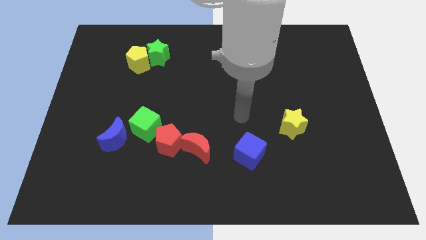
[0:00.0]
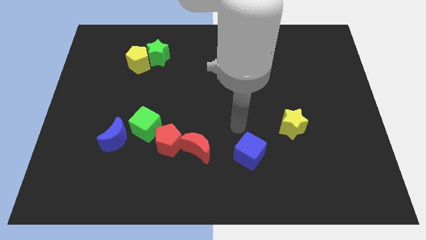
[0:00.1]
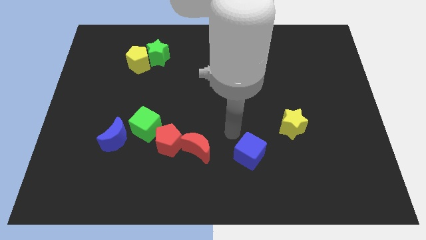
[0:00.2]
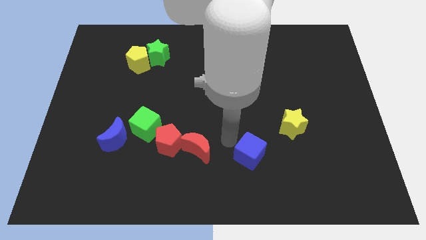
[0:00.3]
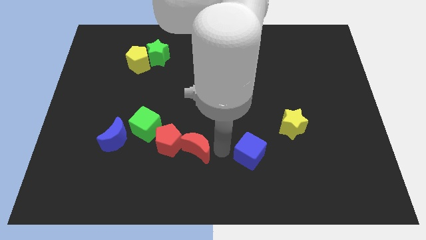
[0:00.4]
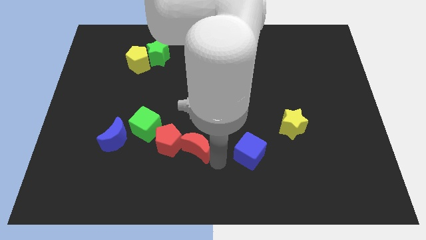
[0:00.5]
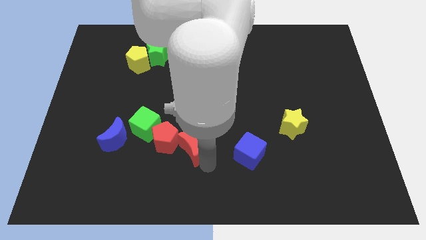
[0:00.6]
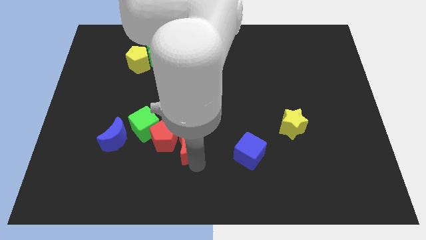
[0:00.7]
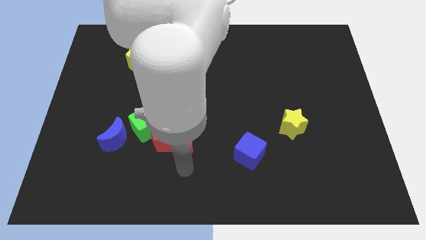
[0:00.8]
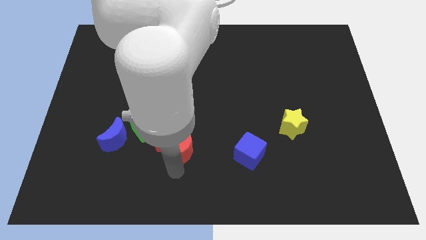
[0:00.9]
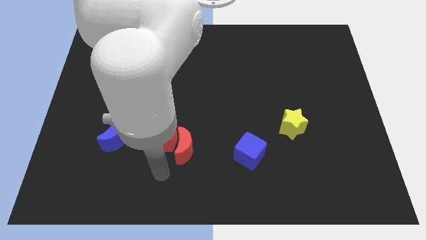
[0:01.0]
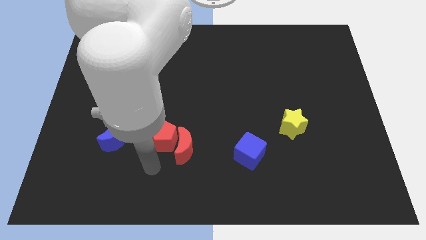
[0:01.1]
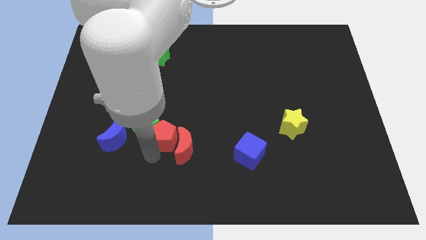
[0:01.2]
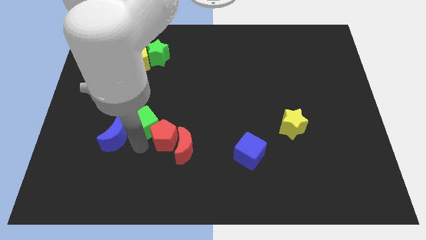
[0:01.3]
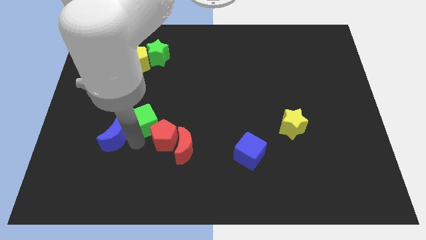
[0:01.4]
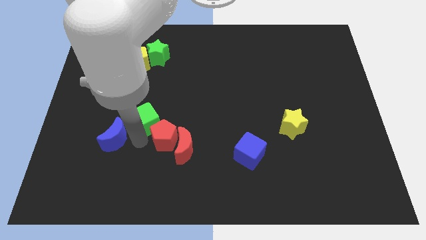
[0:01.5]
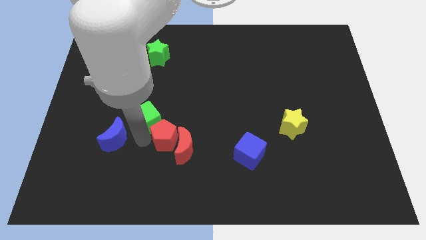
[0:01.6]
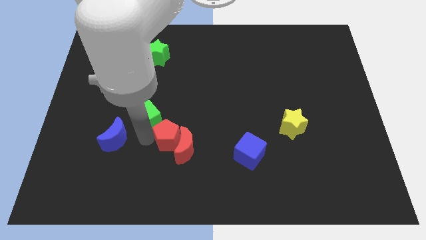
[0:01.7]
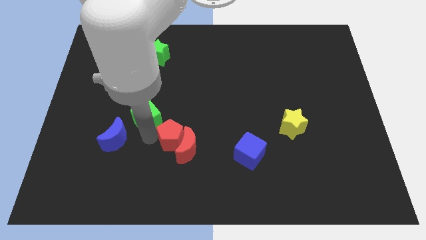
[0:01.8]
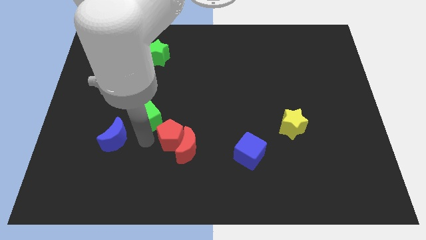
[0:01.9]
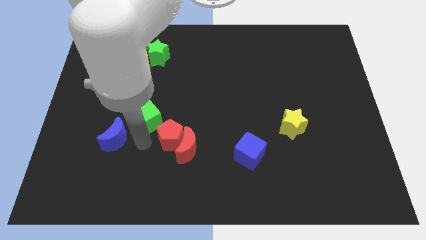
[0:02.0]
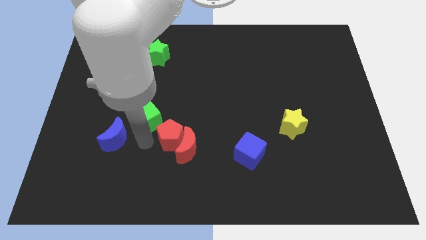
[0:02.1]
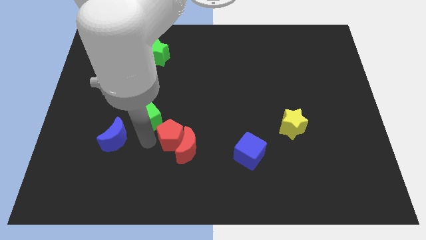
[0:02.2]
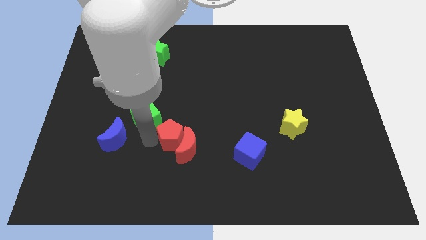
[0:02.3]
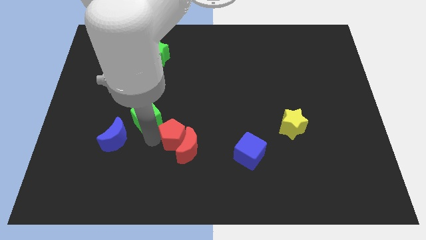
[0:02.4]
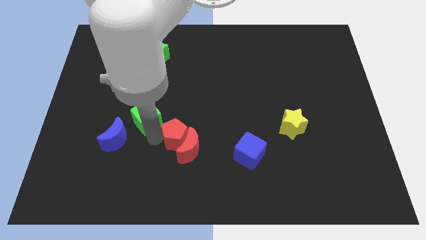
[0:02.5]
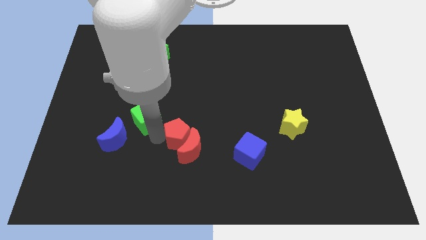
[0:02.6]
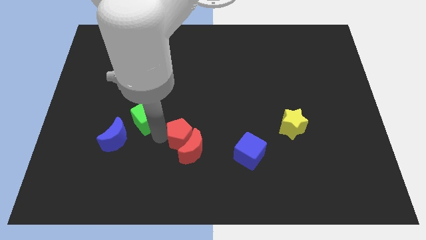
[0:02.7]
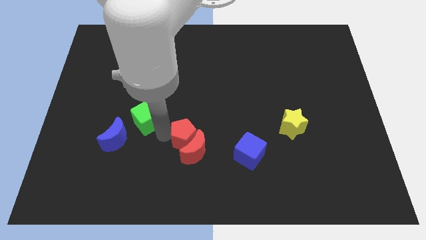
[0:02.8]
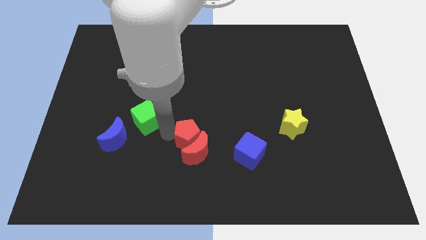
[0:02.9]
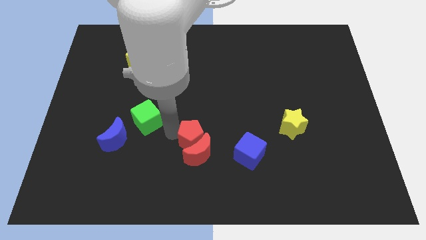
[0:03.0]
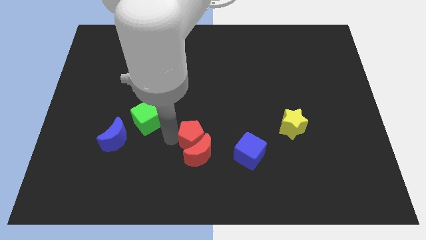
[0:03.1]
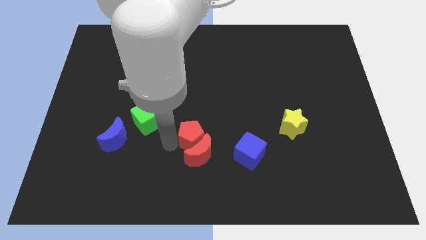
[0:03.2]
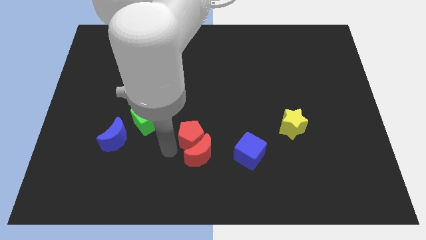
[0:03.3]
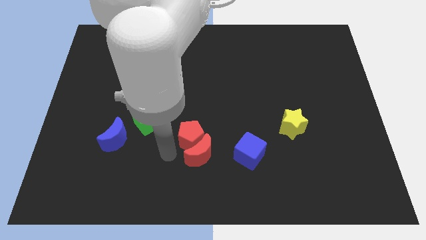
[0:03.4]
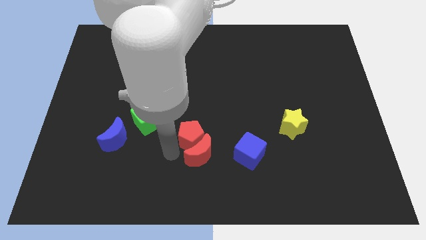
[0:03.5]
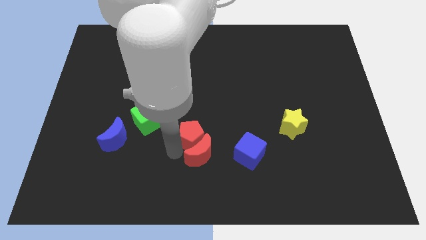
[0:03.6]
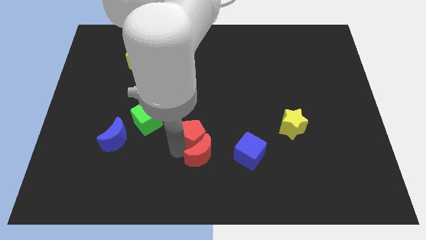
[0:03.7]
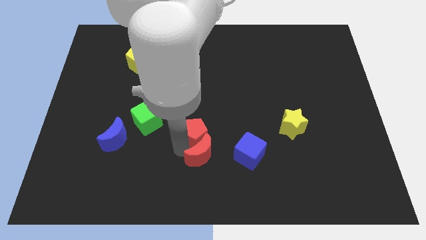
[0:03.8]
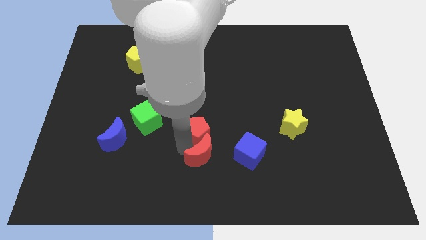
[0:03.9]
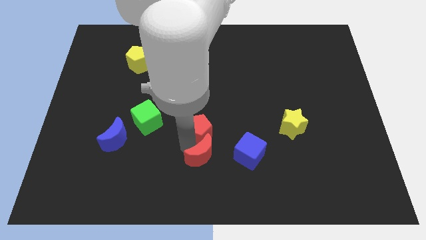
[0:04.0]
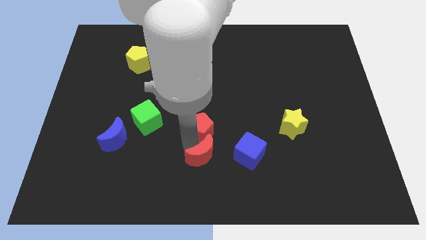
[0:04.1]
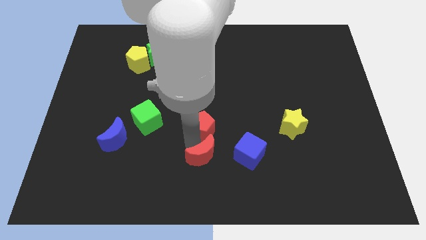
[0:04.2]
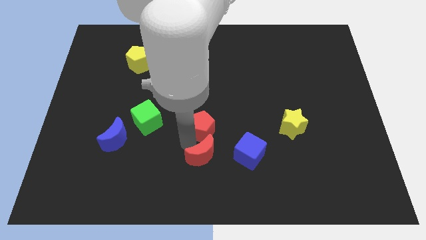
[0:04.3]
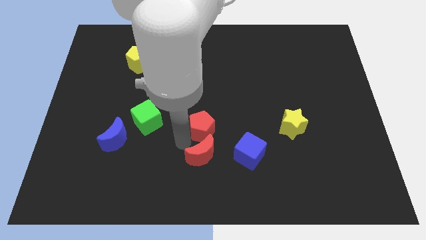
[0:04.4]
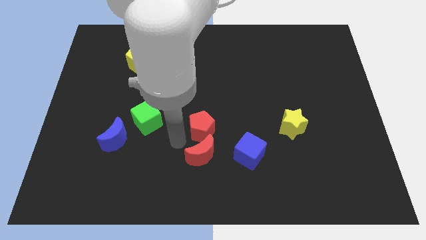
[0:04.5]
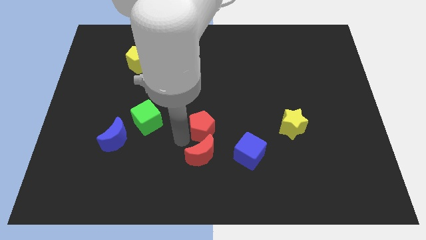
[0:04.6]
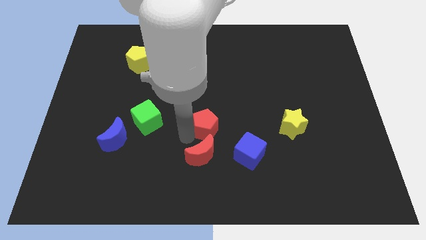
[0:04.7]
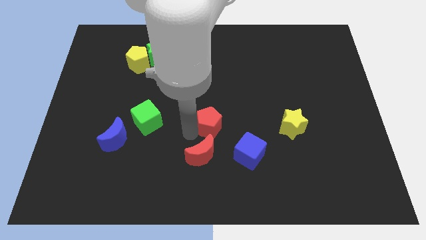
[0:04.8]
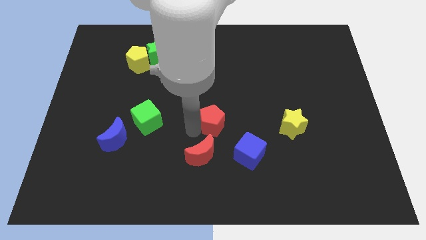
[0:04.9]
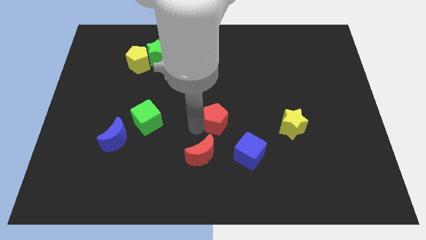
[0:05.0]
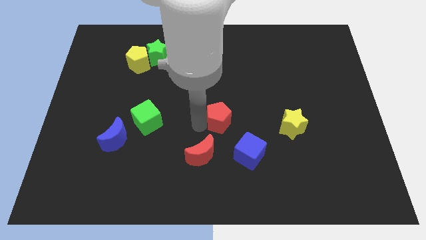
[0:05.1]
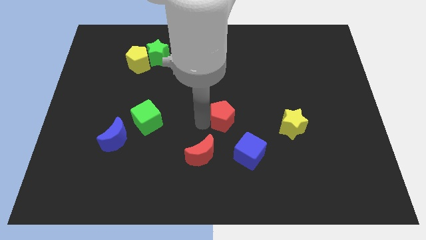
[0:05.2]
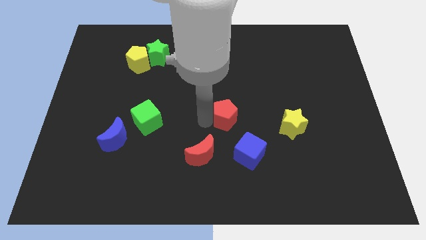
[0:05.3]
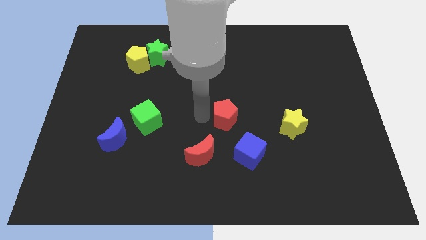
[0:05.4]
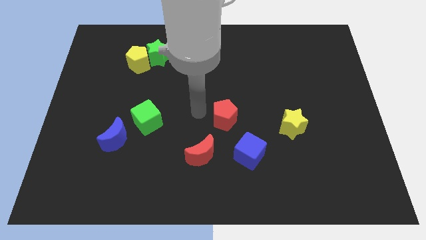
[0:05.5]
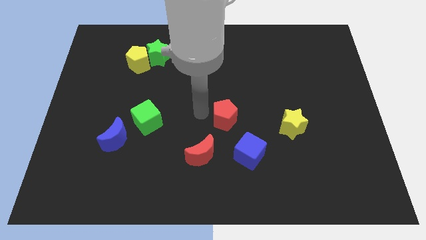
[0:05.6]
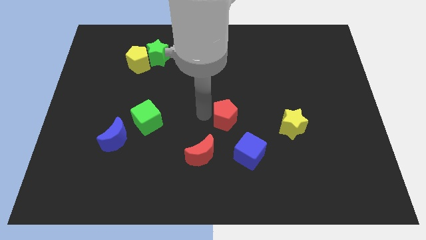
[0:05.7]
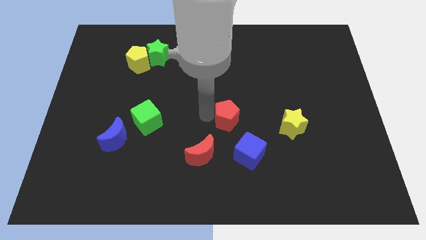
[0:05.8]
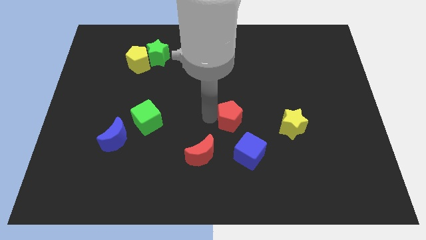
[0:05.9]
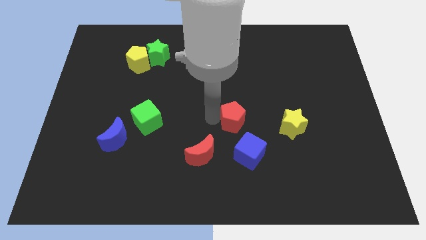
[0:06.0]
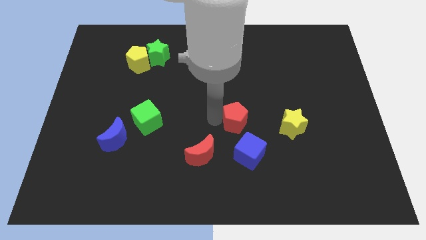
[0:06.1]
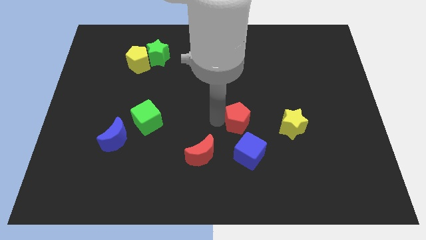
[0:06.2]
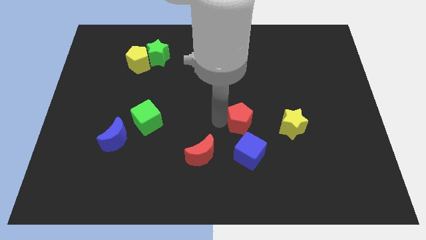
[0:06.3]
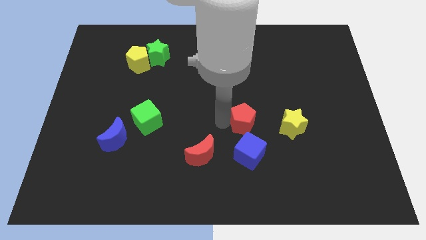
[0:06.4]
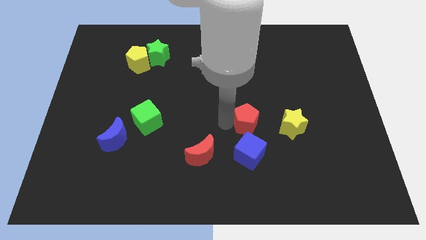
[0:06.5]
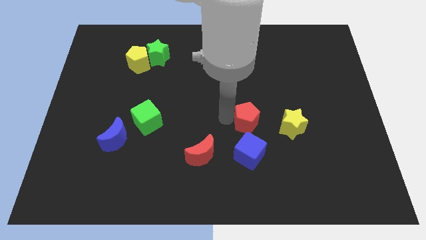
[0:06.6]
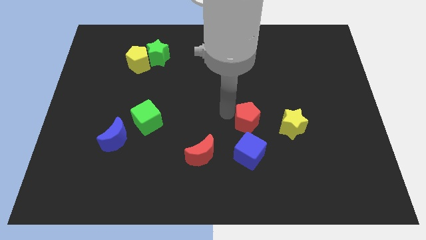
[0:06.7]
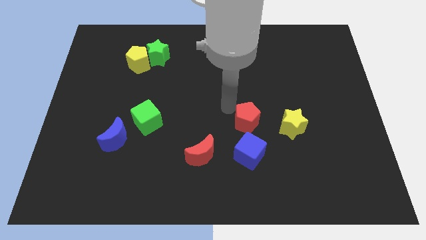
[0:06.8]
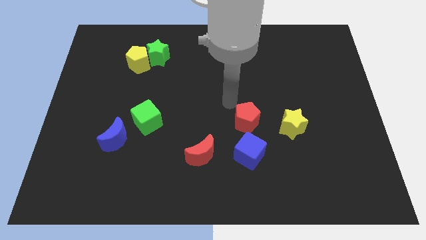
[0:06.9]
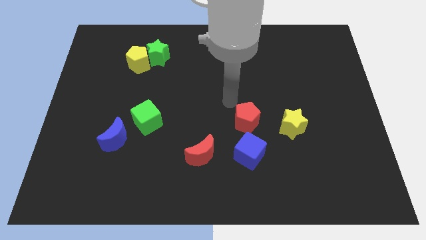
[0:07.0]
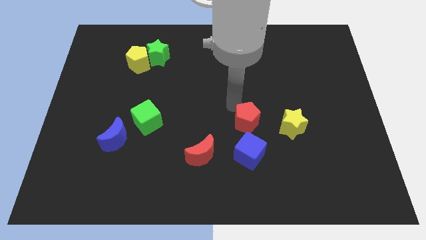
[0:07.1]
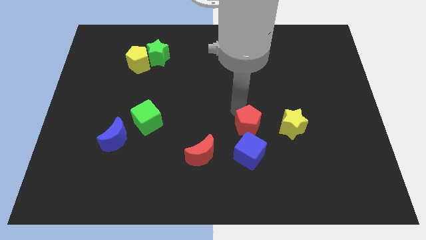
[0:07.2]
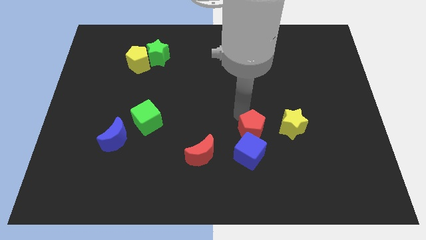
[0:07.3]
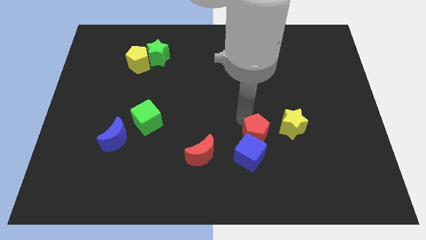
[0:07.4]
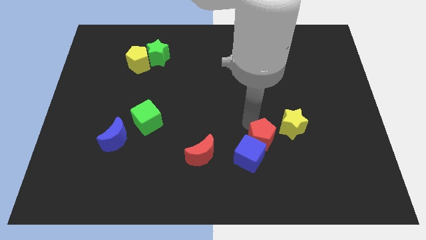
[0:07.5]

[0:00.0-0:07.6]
put the red pentagon right of the red moon
